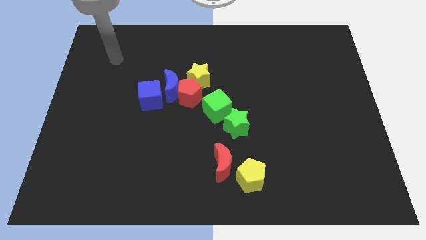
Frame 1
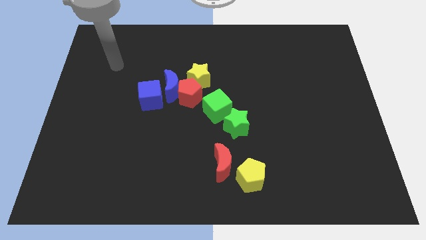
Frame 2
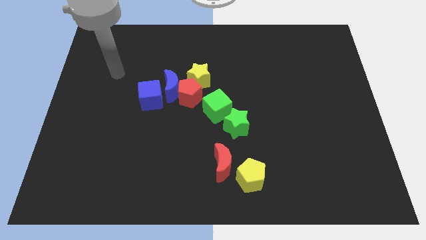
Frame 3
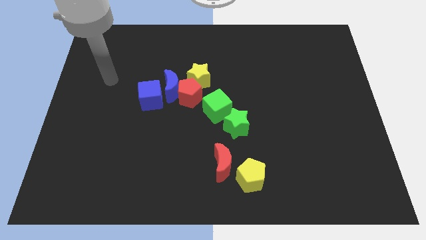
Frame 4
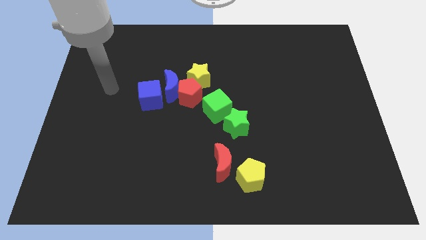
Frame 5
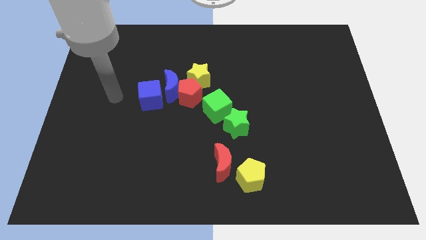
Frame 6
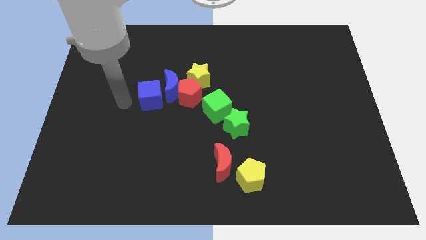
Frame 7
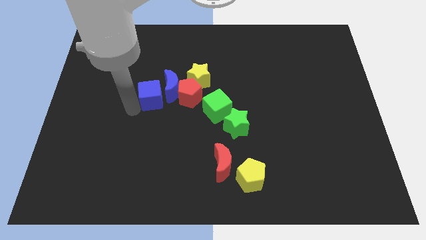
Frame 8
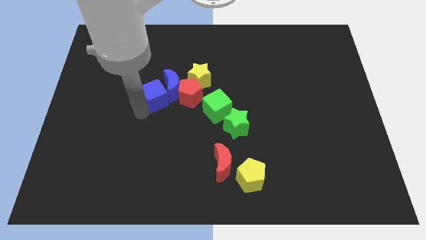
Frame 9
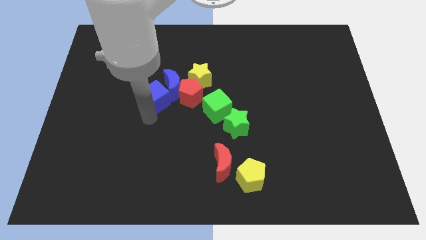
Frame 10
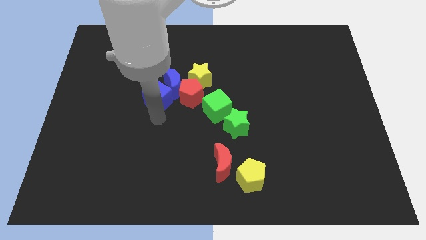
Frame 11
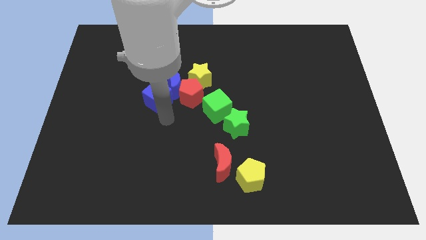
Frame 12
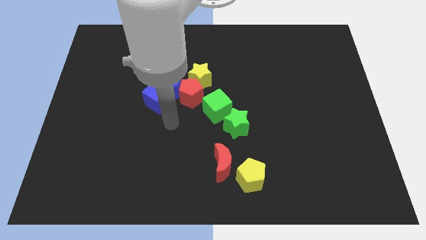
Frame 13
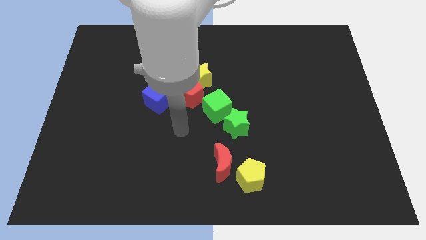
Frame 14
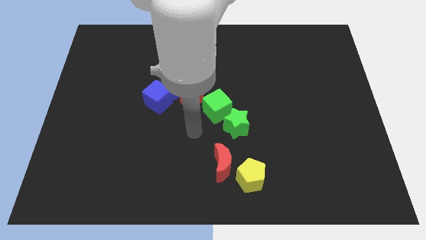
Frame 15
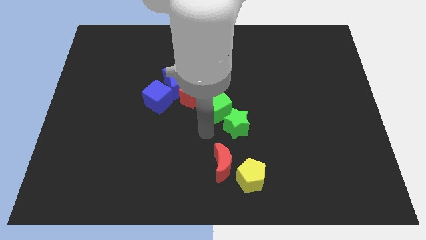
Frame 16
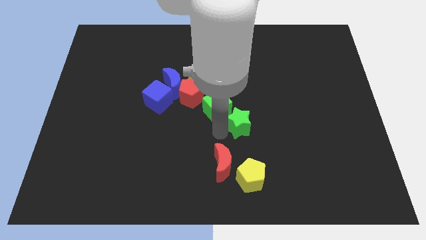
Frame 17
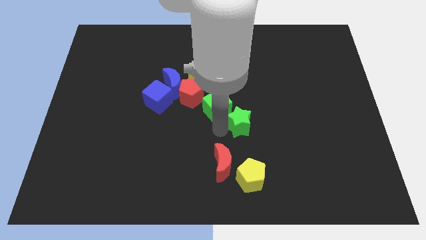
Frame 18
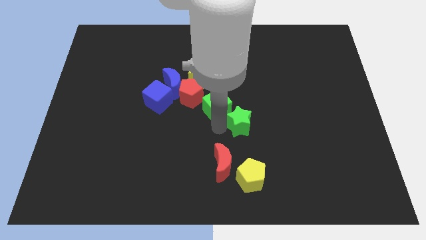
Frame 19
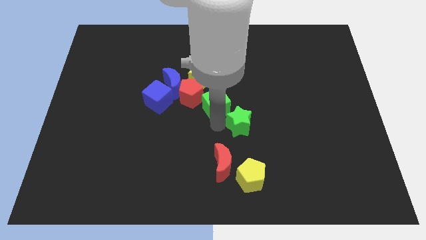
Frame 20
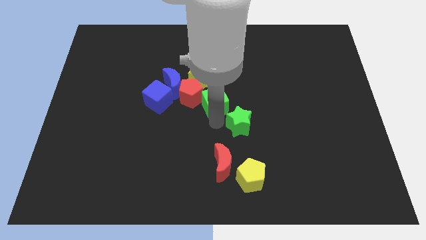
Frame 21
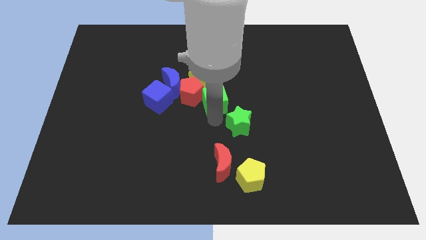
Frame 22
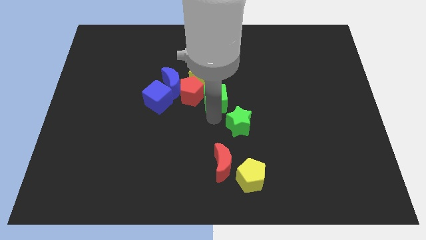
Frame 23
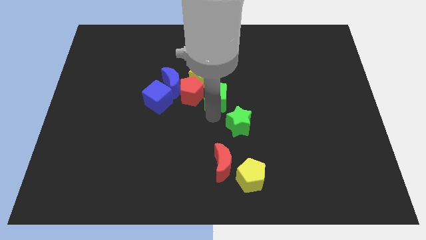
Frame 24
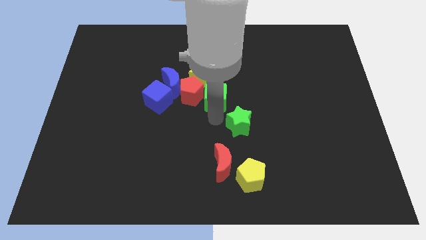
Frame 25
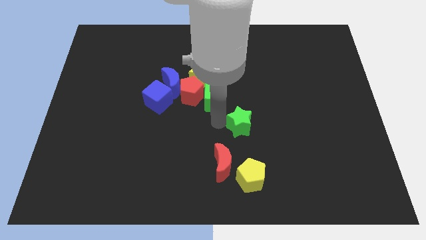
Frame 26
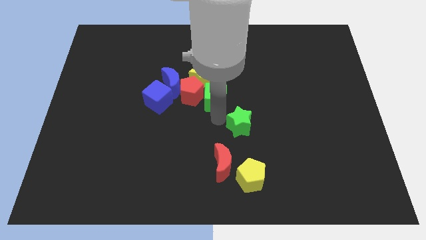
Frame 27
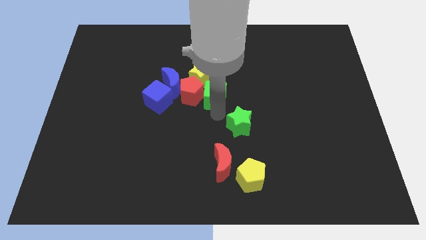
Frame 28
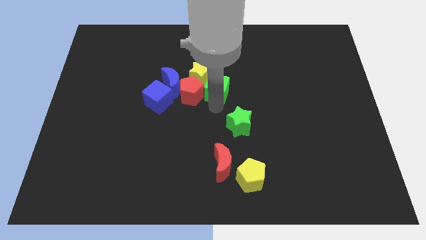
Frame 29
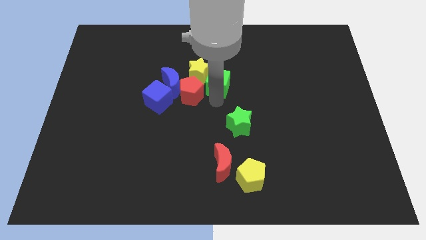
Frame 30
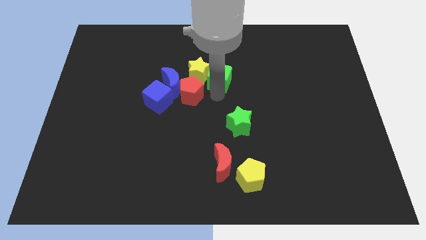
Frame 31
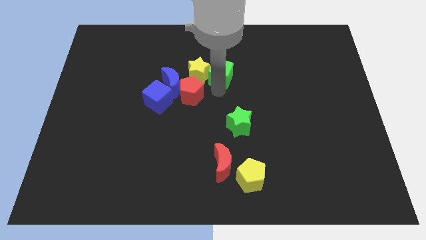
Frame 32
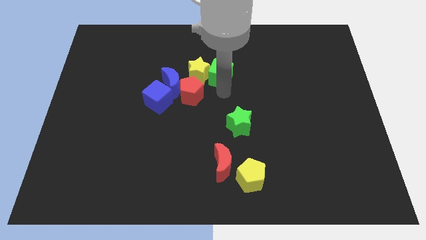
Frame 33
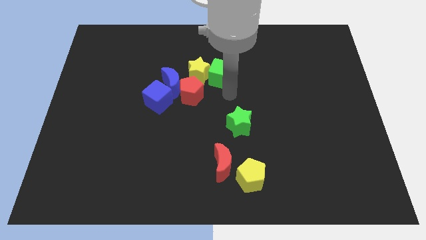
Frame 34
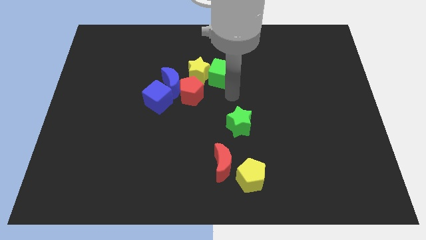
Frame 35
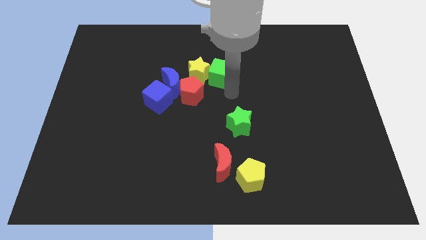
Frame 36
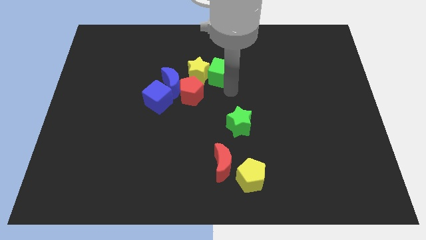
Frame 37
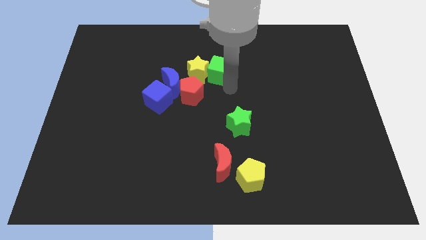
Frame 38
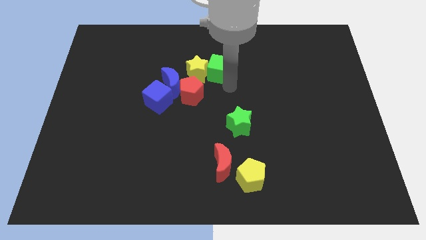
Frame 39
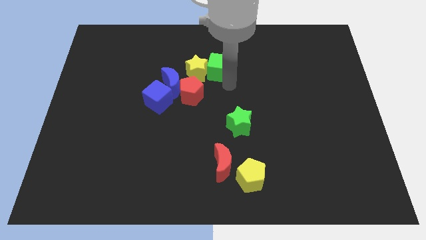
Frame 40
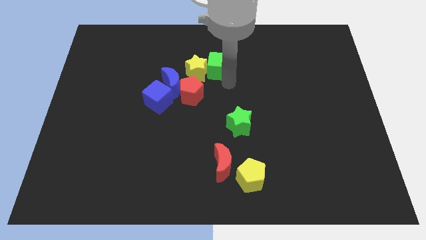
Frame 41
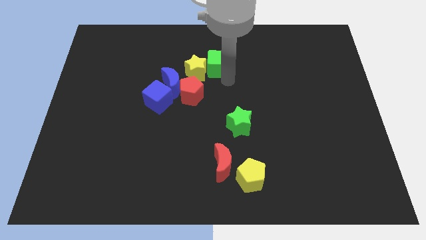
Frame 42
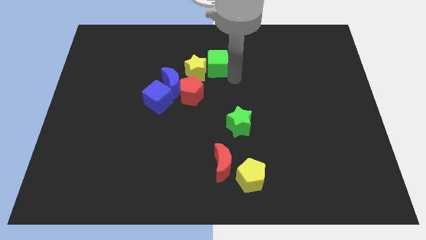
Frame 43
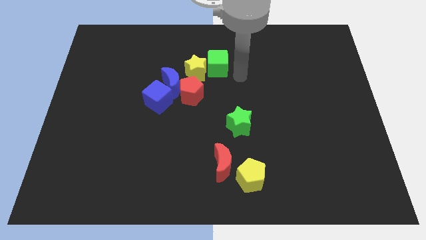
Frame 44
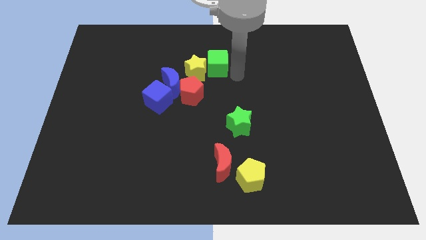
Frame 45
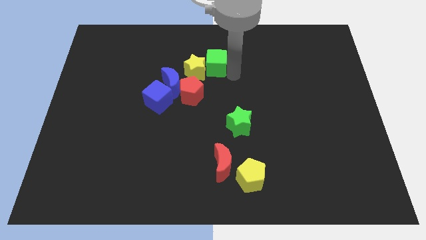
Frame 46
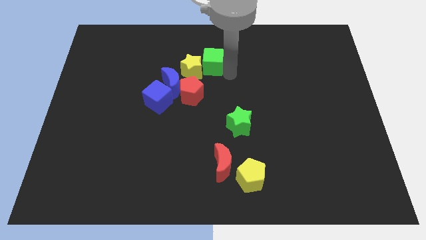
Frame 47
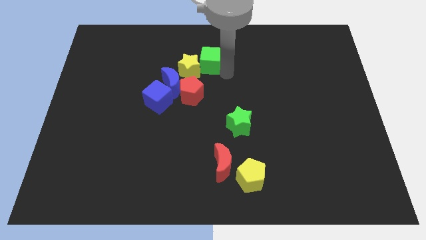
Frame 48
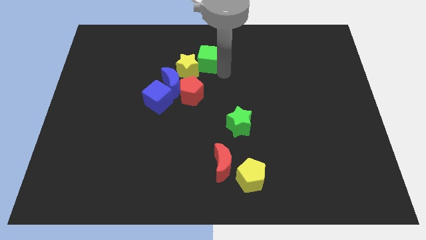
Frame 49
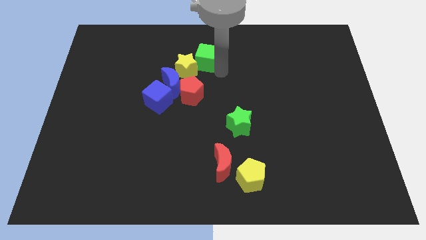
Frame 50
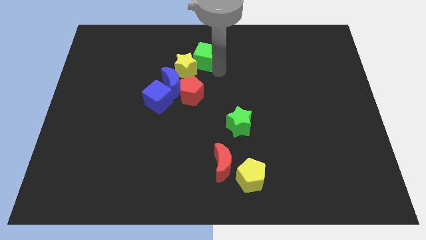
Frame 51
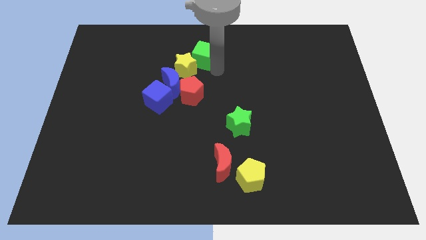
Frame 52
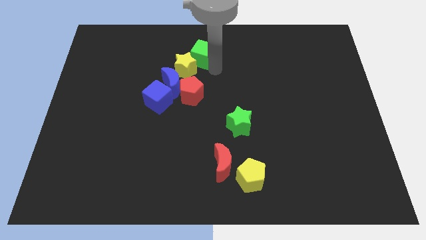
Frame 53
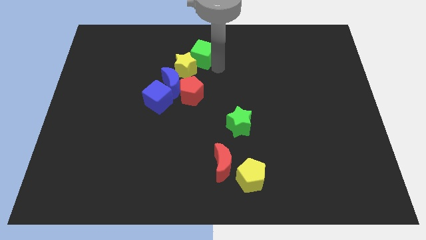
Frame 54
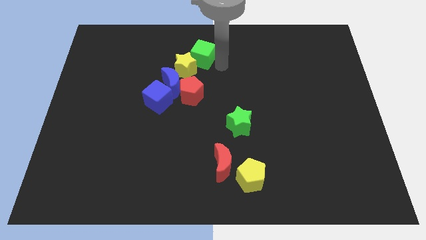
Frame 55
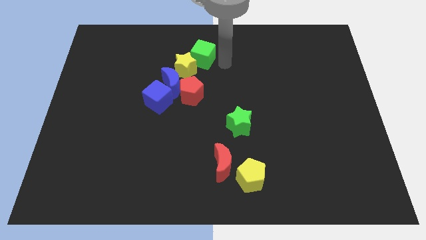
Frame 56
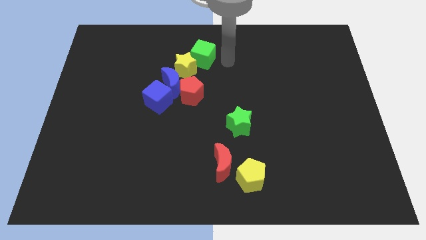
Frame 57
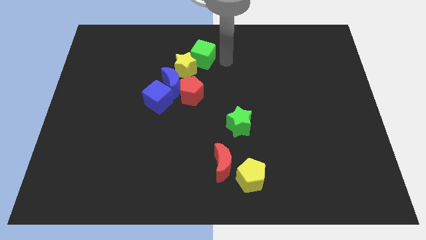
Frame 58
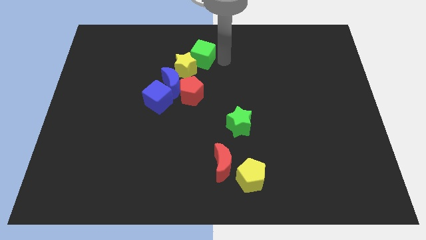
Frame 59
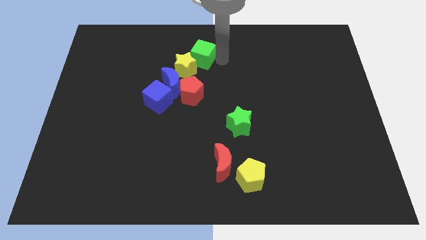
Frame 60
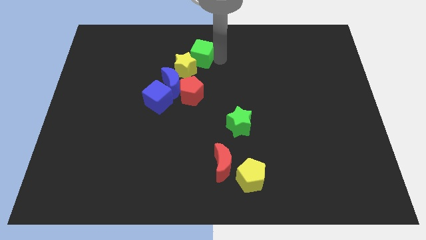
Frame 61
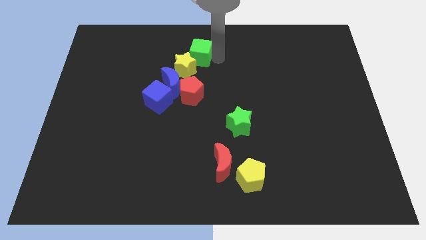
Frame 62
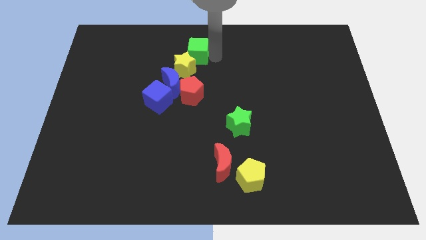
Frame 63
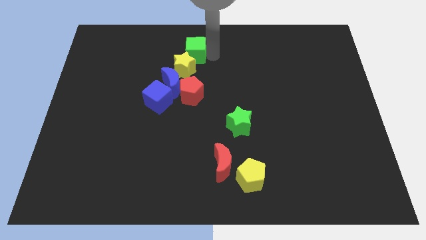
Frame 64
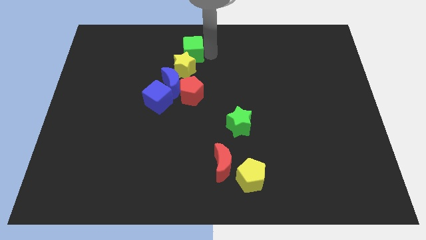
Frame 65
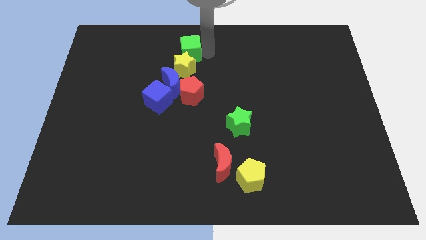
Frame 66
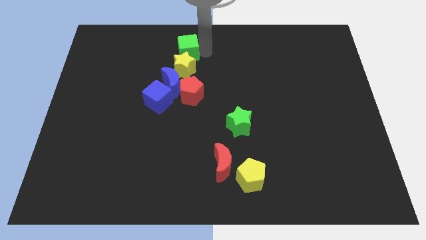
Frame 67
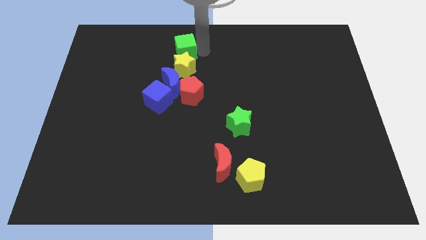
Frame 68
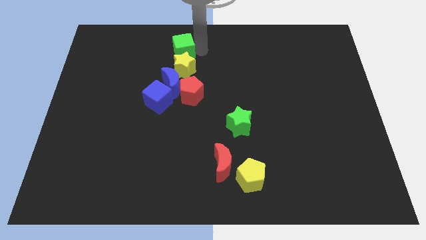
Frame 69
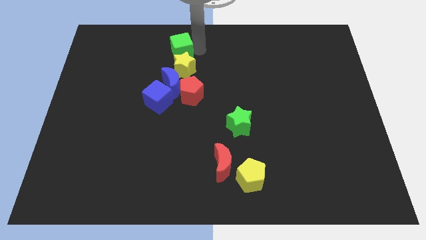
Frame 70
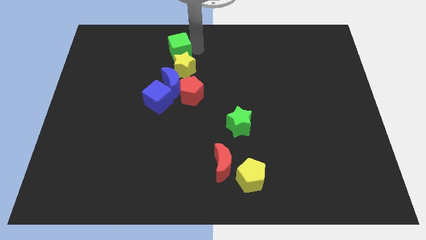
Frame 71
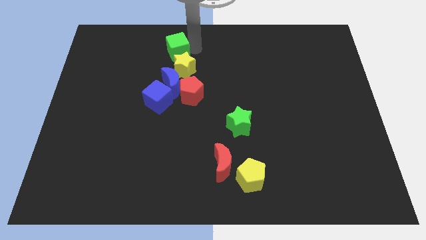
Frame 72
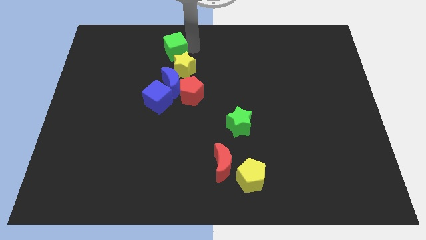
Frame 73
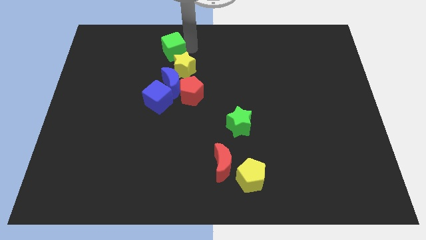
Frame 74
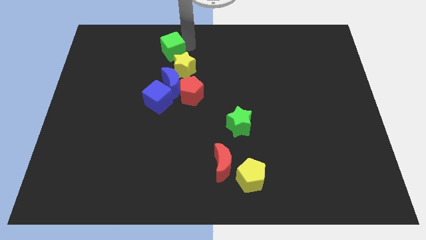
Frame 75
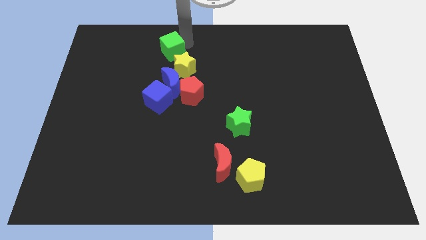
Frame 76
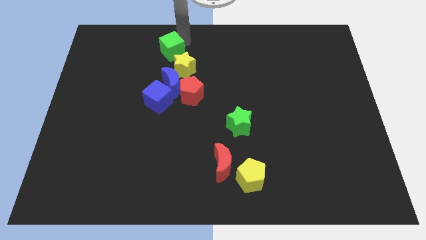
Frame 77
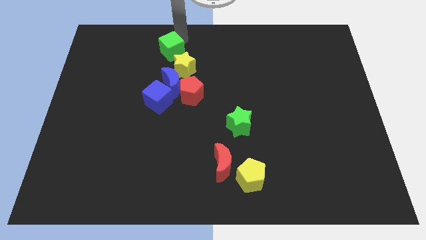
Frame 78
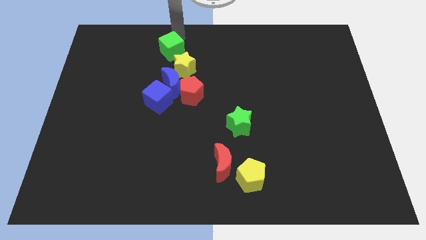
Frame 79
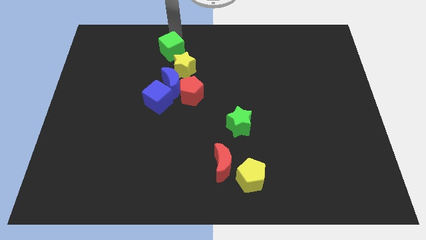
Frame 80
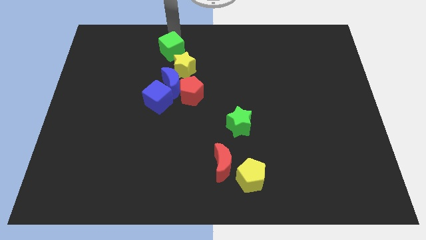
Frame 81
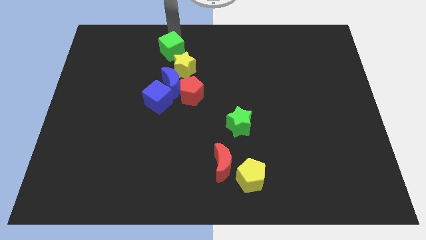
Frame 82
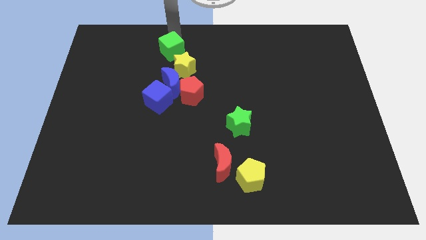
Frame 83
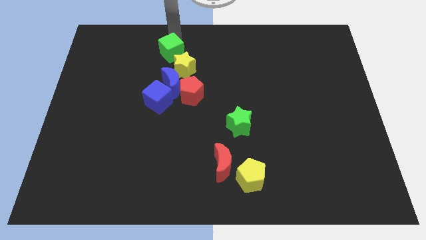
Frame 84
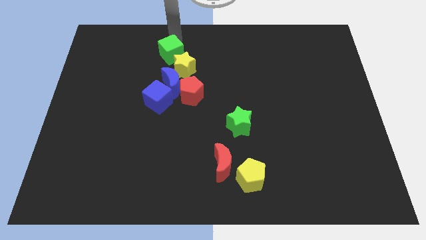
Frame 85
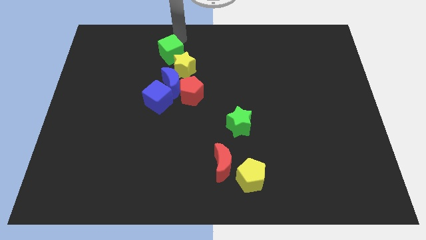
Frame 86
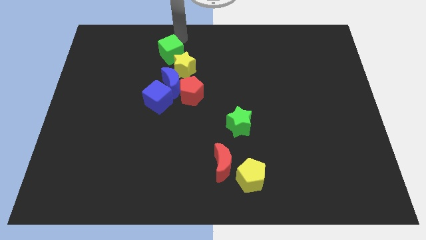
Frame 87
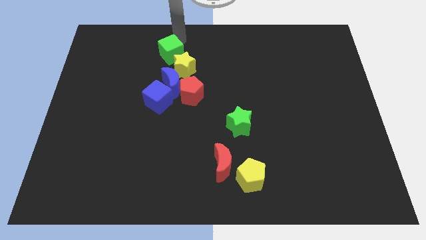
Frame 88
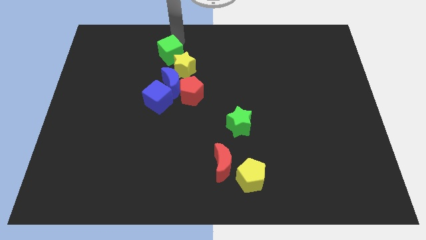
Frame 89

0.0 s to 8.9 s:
slide the green cube to the top of the blue cube
